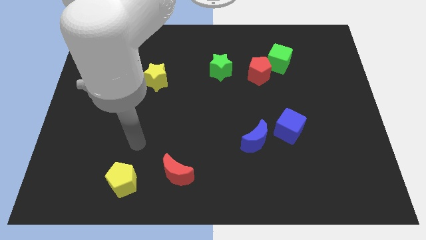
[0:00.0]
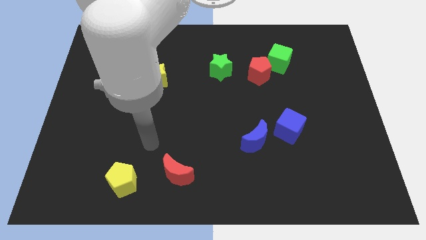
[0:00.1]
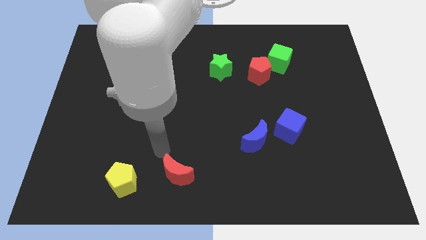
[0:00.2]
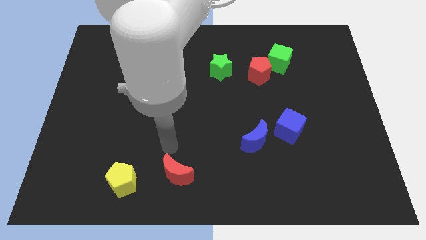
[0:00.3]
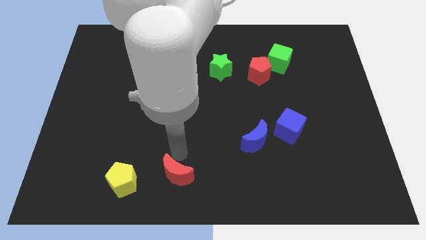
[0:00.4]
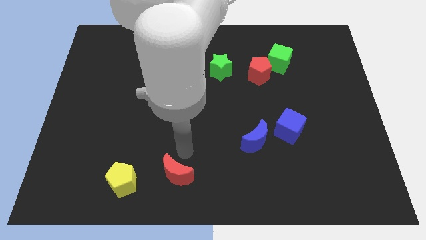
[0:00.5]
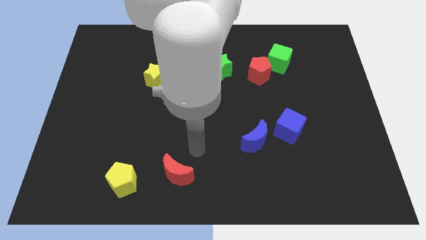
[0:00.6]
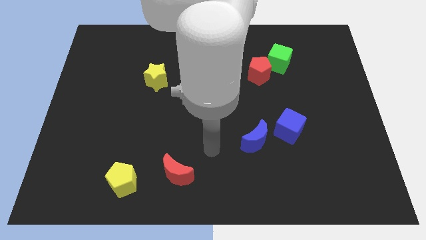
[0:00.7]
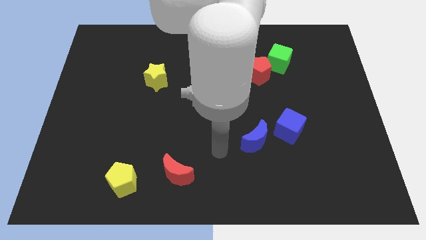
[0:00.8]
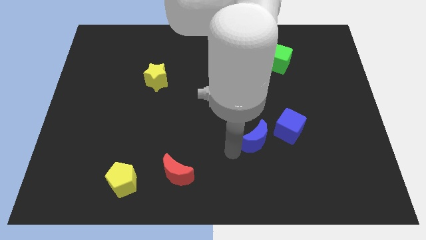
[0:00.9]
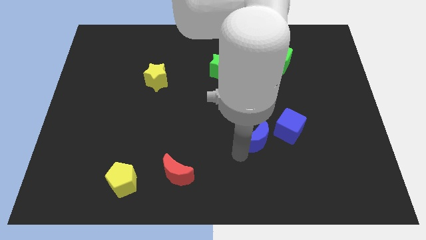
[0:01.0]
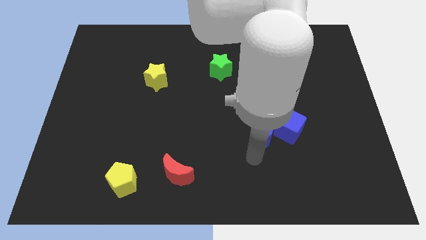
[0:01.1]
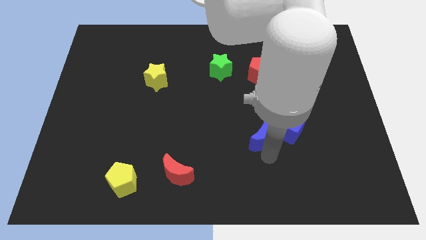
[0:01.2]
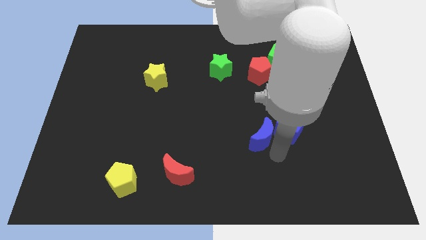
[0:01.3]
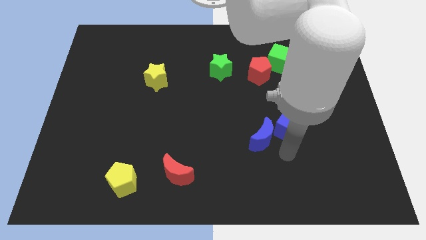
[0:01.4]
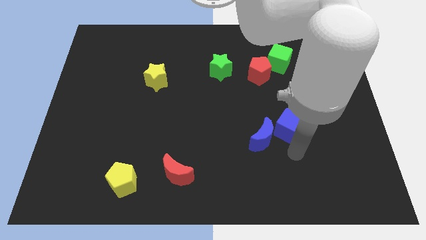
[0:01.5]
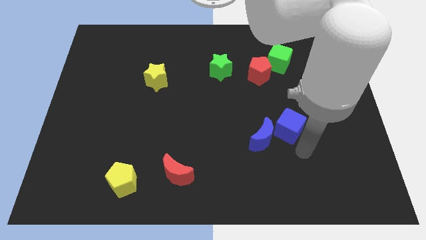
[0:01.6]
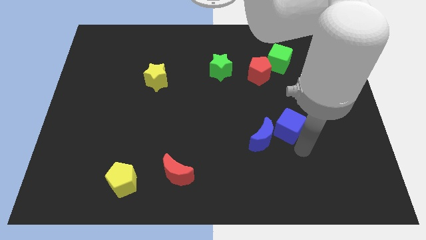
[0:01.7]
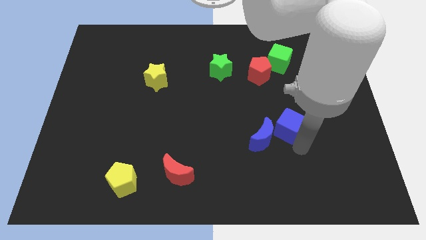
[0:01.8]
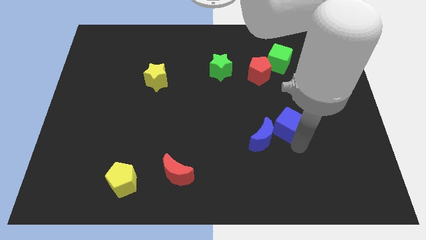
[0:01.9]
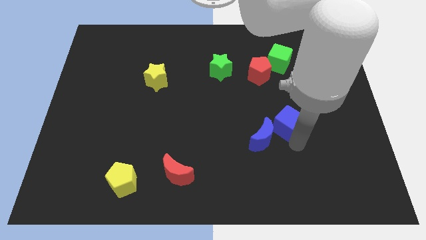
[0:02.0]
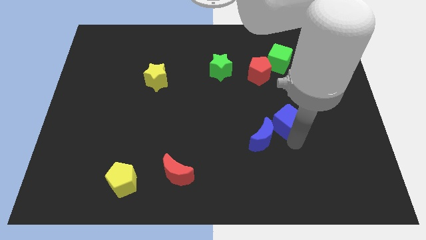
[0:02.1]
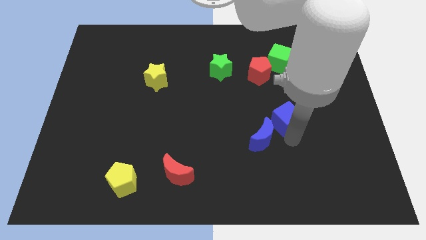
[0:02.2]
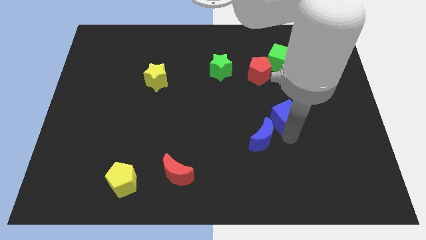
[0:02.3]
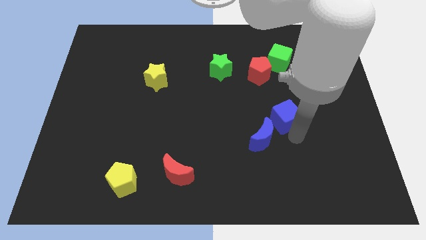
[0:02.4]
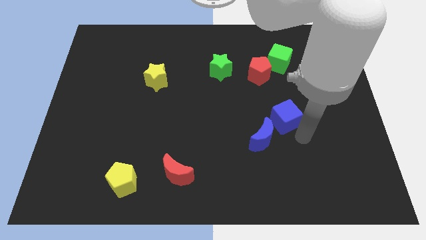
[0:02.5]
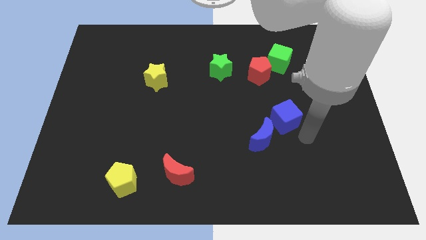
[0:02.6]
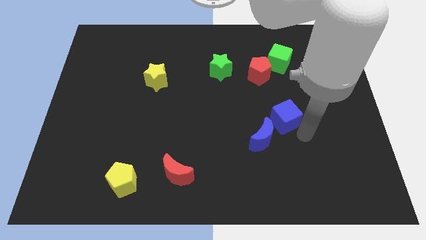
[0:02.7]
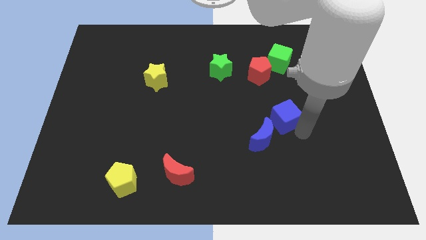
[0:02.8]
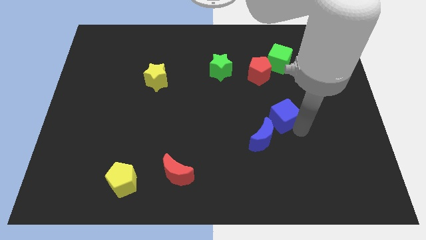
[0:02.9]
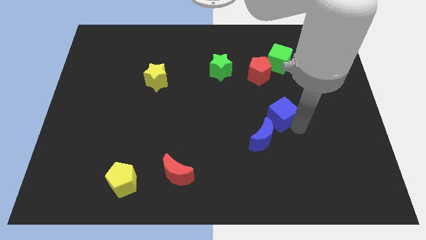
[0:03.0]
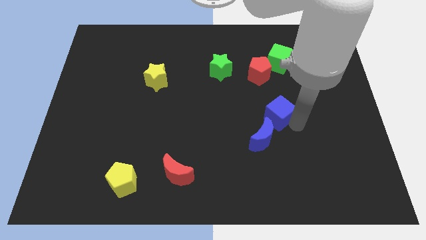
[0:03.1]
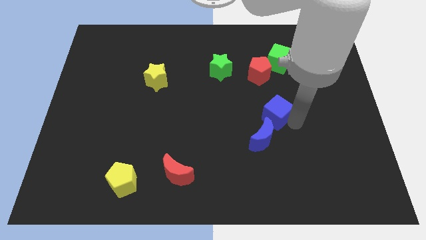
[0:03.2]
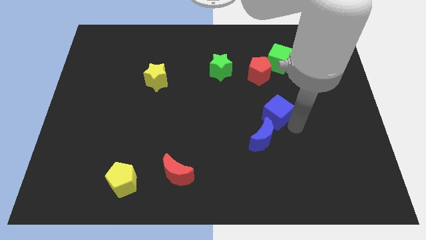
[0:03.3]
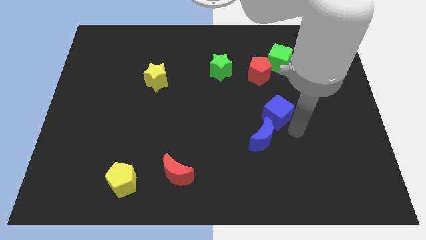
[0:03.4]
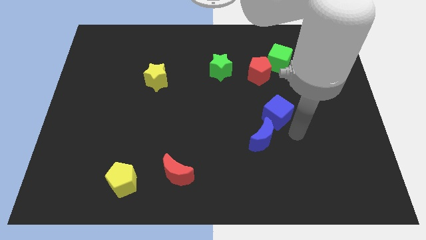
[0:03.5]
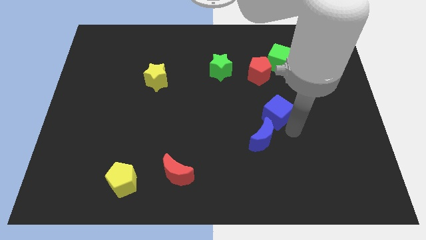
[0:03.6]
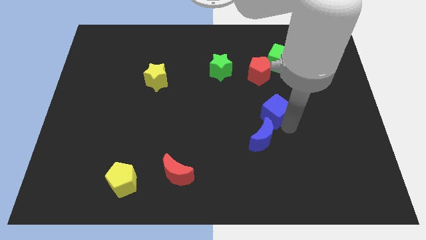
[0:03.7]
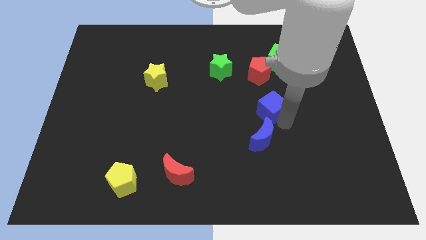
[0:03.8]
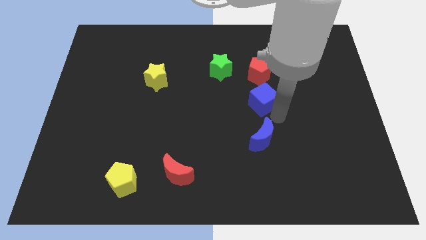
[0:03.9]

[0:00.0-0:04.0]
slightly push the blue cube up and then to the left

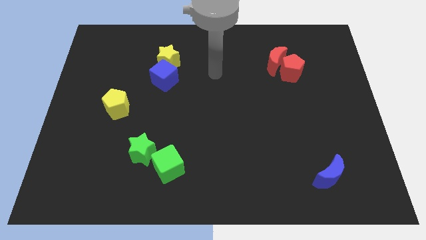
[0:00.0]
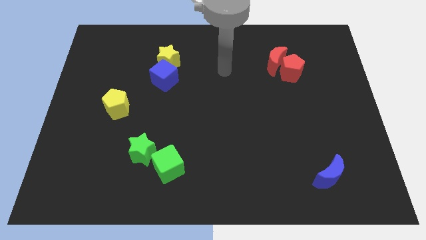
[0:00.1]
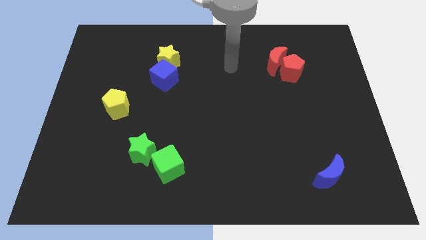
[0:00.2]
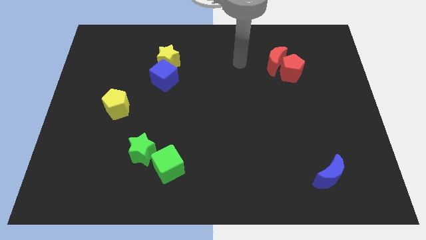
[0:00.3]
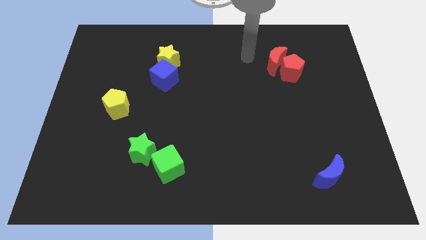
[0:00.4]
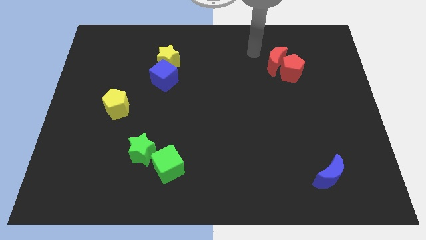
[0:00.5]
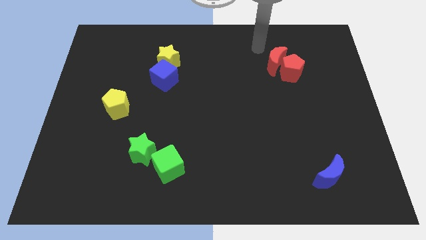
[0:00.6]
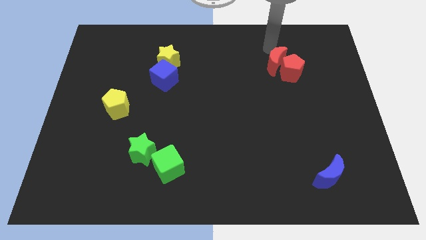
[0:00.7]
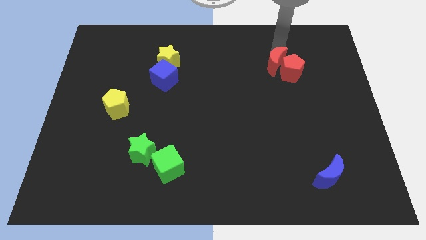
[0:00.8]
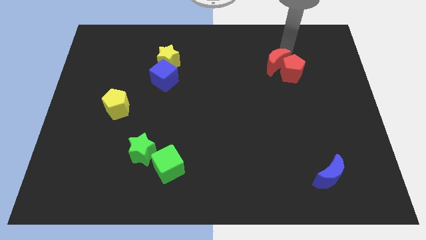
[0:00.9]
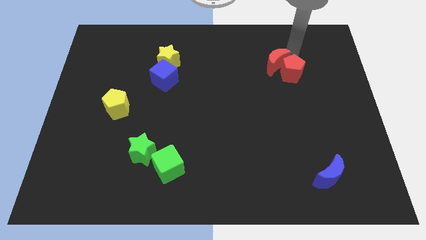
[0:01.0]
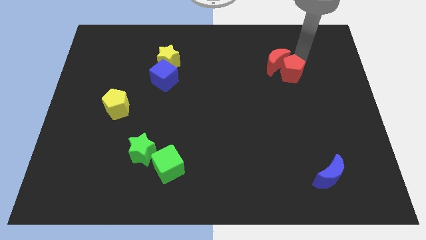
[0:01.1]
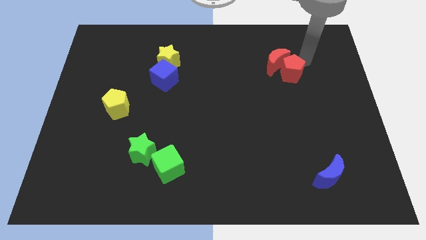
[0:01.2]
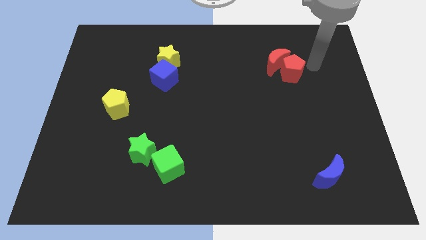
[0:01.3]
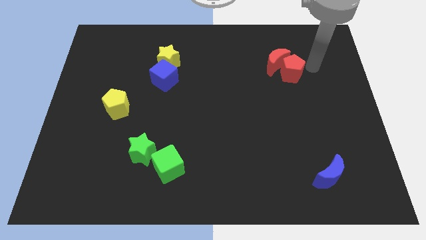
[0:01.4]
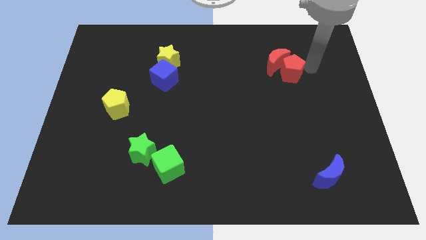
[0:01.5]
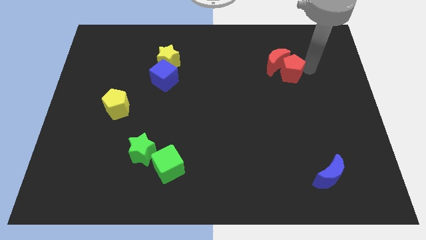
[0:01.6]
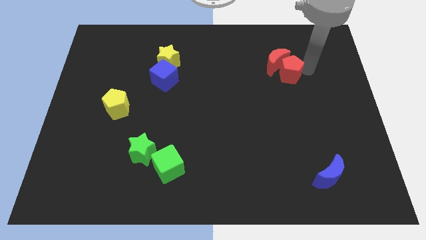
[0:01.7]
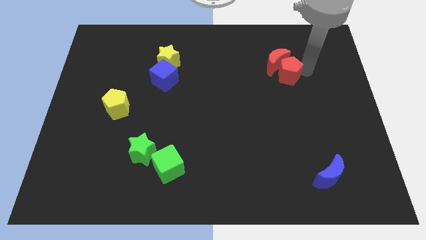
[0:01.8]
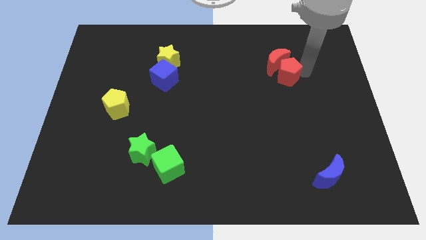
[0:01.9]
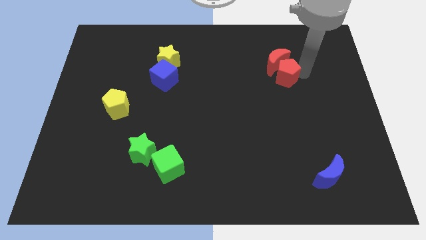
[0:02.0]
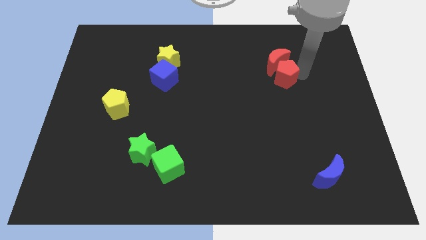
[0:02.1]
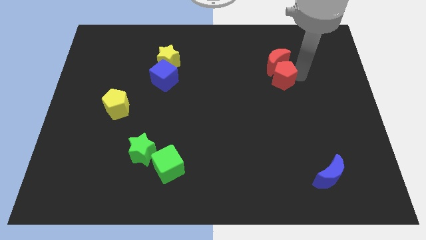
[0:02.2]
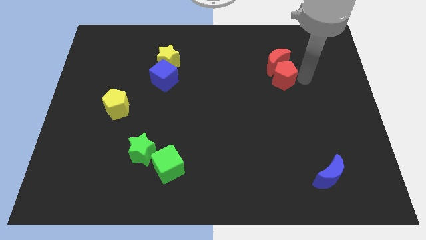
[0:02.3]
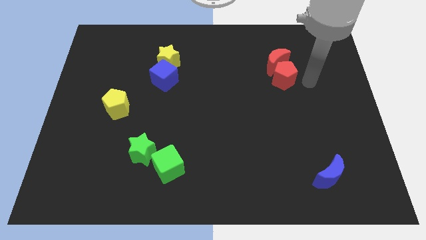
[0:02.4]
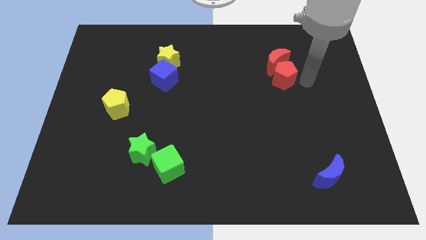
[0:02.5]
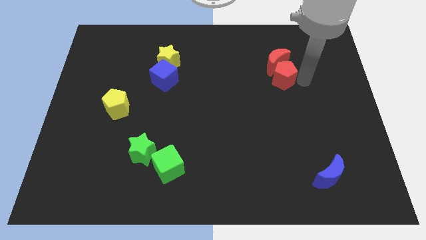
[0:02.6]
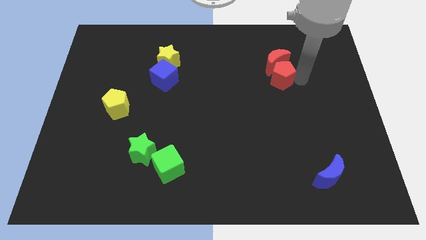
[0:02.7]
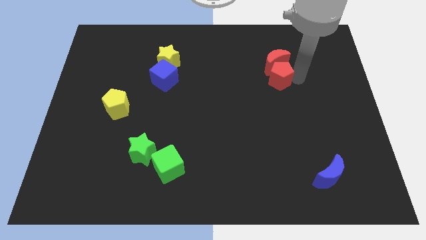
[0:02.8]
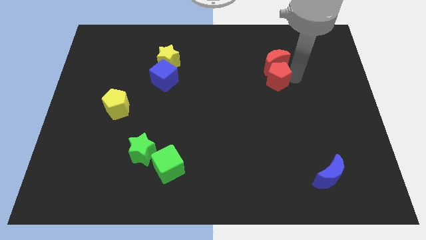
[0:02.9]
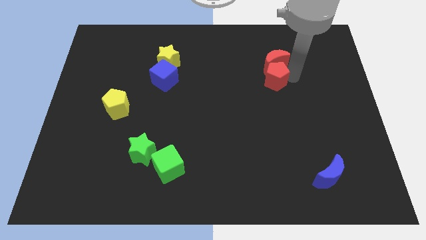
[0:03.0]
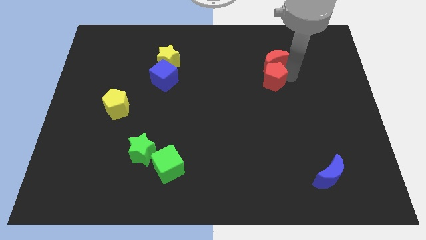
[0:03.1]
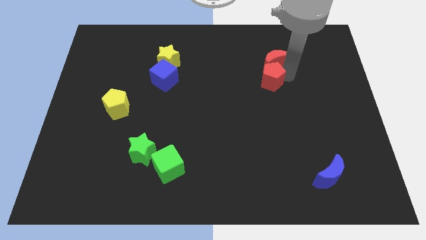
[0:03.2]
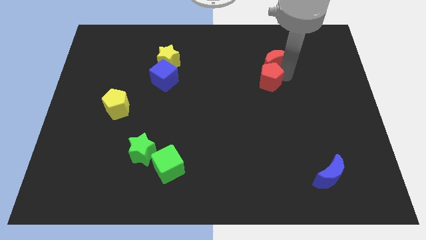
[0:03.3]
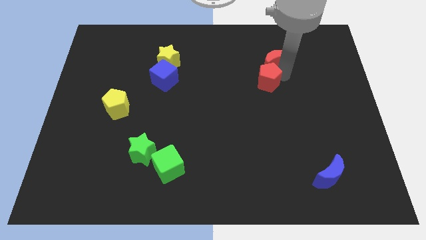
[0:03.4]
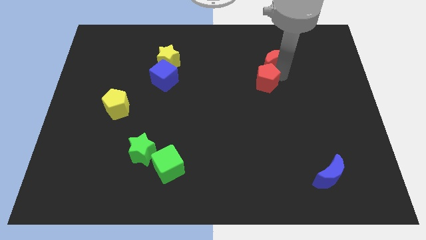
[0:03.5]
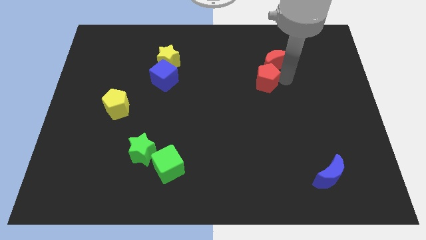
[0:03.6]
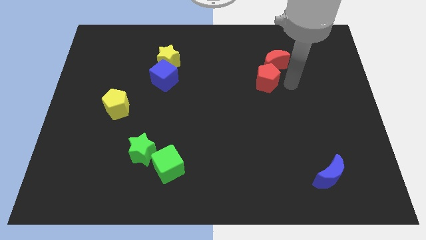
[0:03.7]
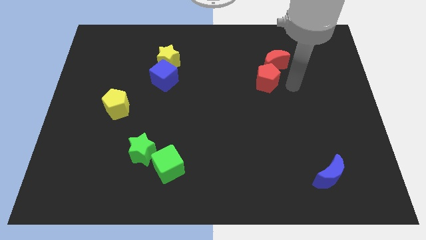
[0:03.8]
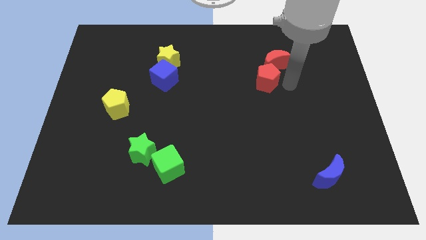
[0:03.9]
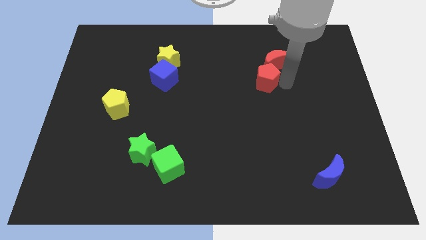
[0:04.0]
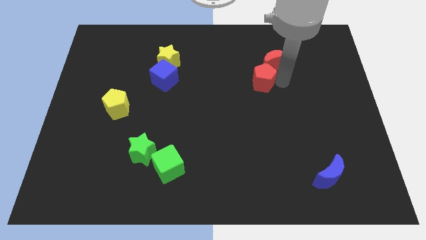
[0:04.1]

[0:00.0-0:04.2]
slide the red pentagon a bit to the left
